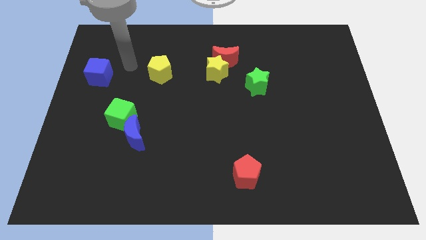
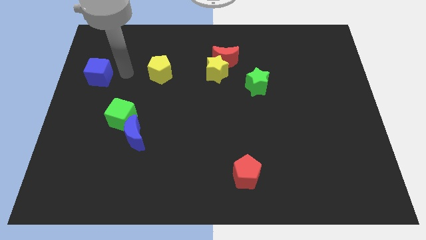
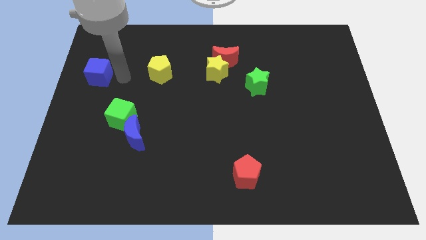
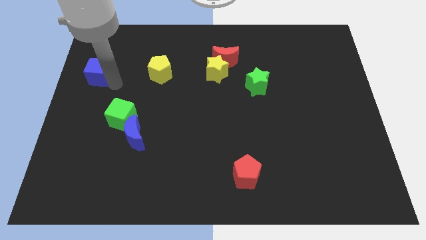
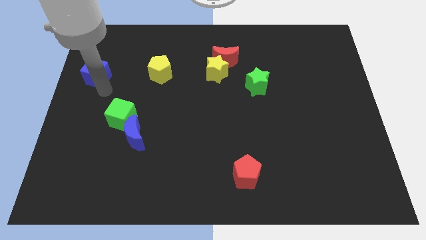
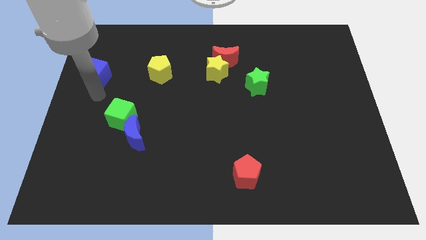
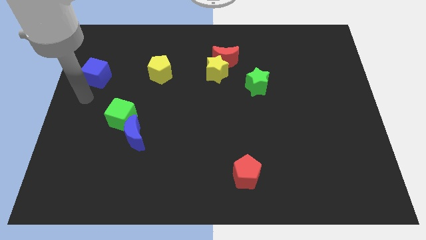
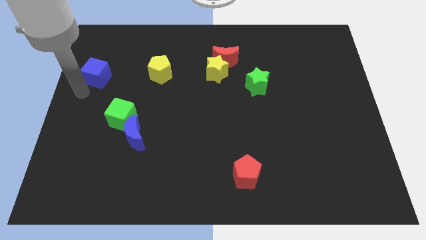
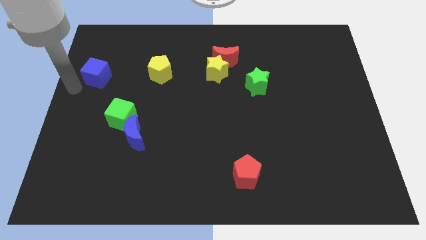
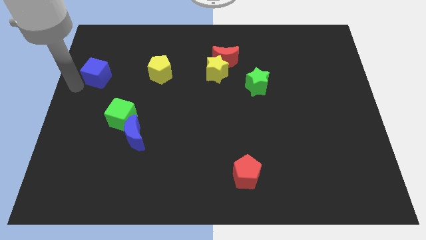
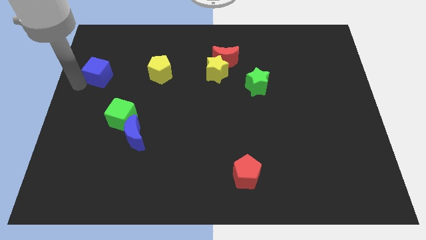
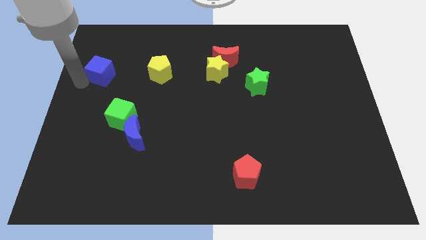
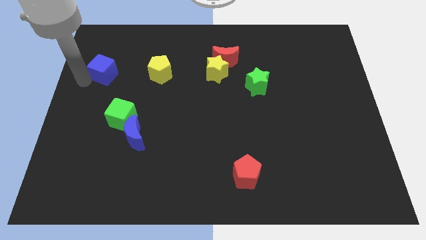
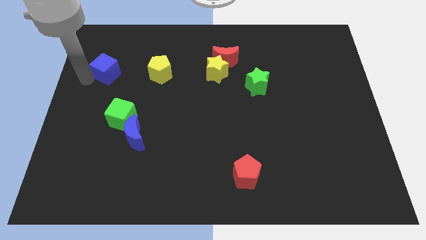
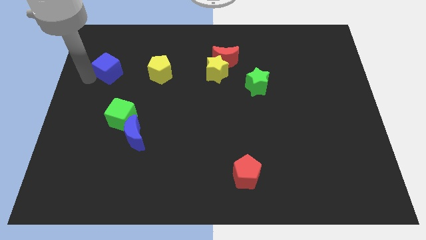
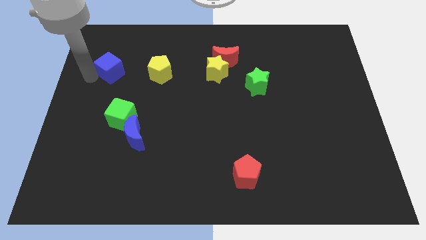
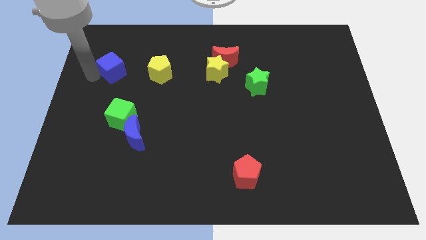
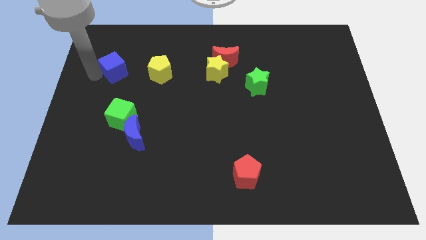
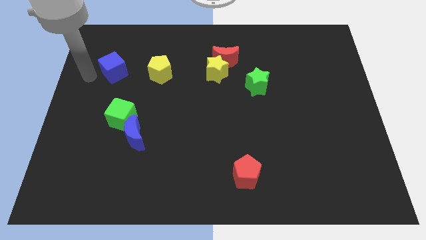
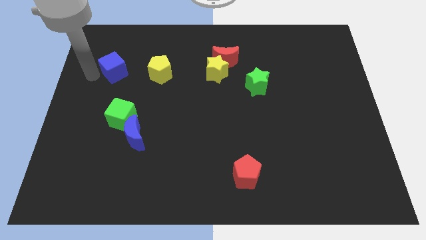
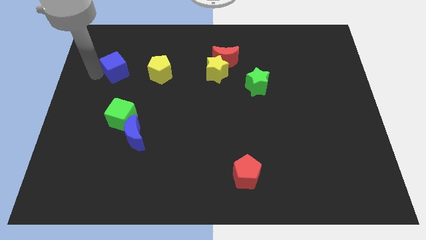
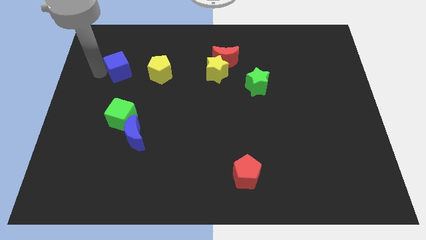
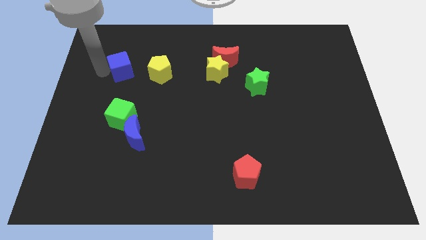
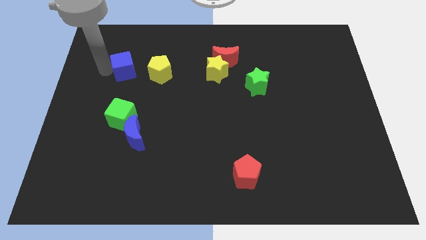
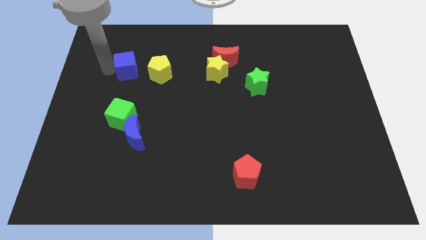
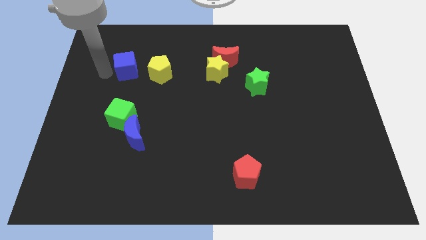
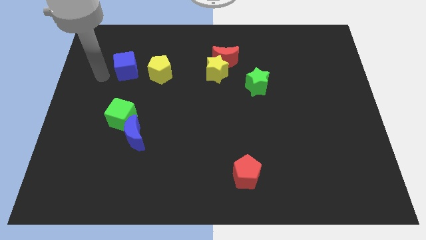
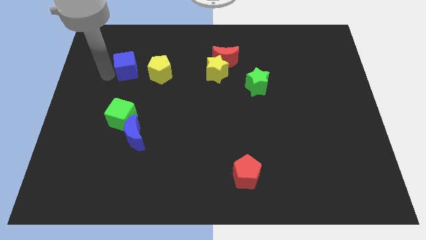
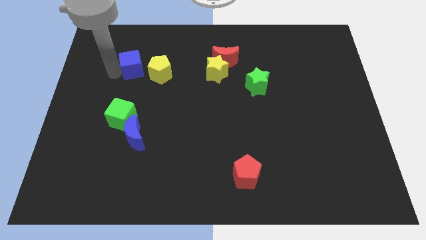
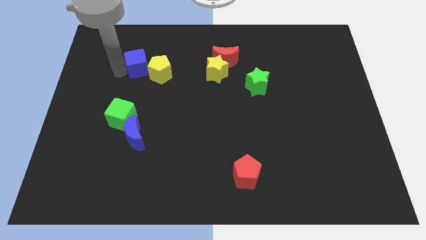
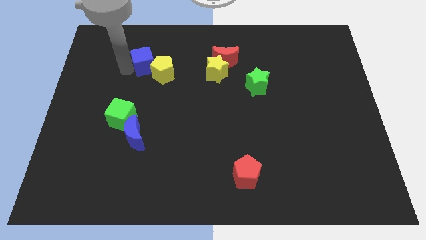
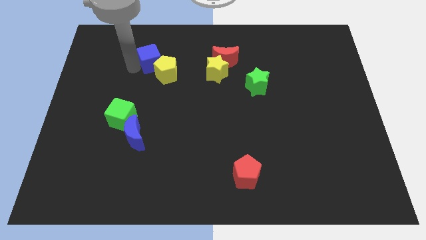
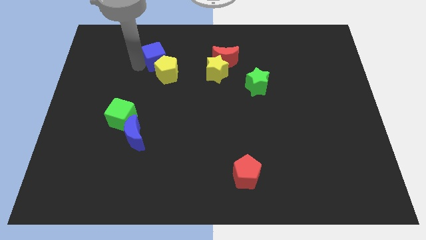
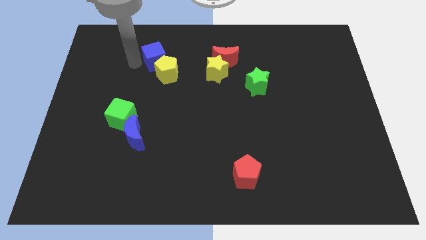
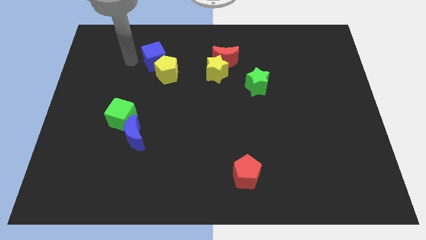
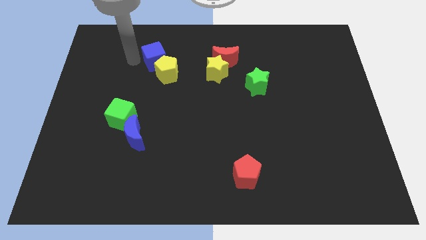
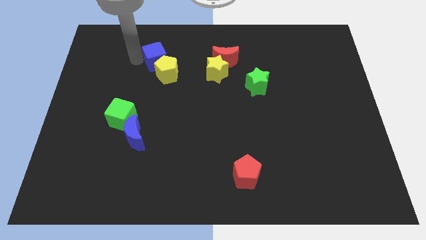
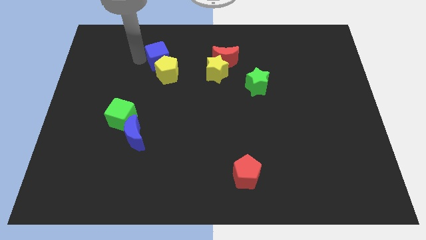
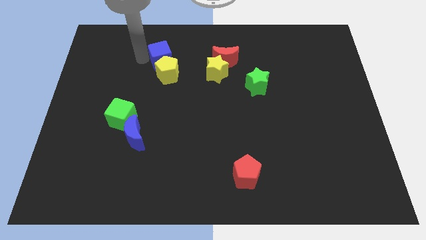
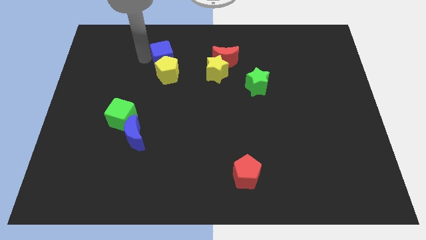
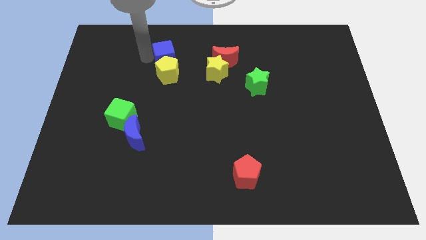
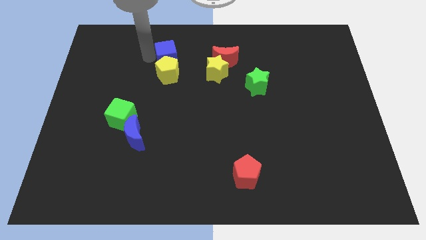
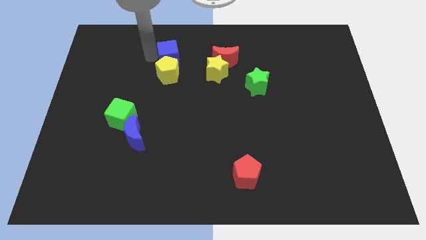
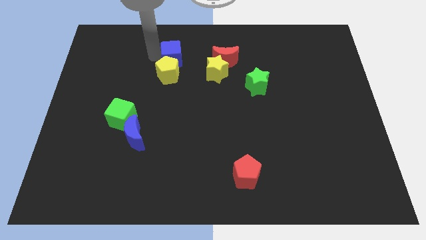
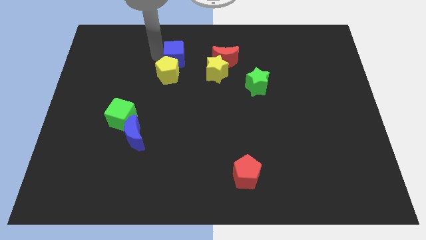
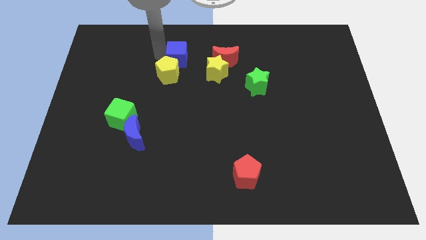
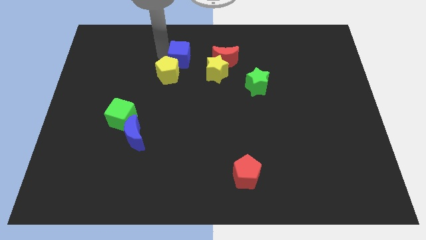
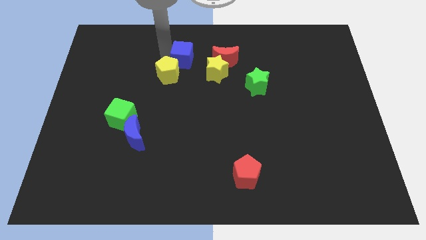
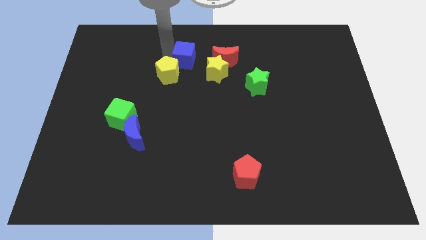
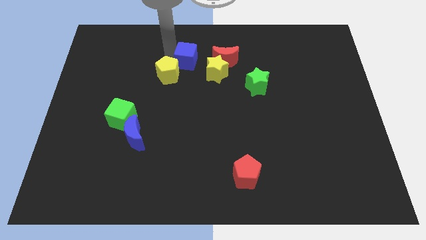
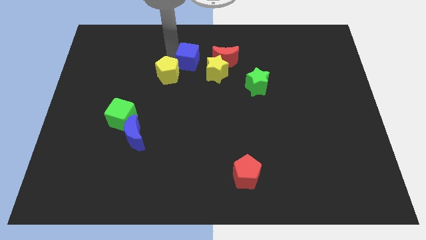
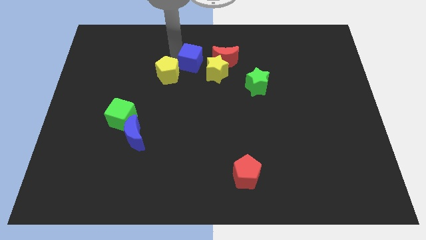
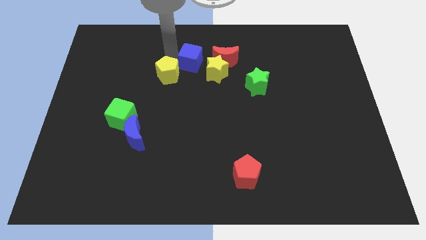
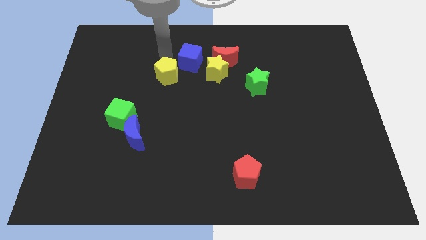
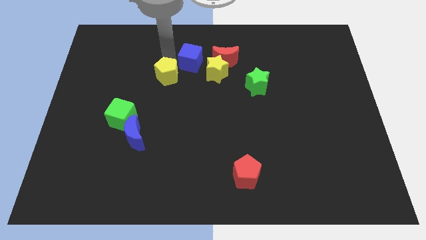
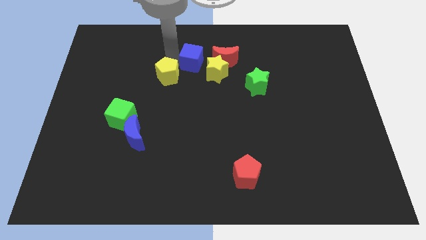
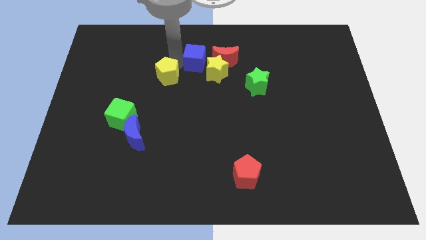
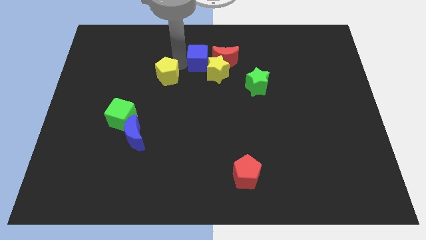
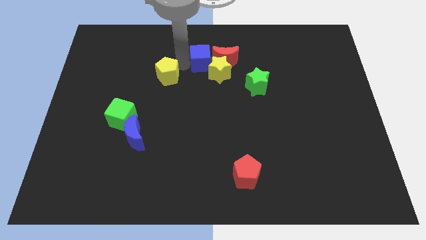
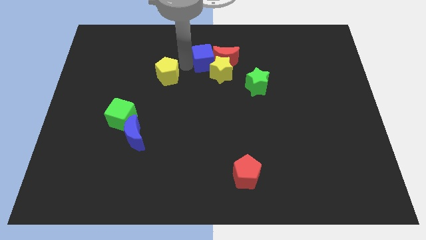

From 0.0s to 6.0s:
push the blue cube next to the red moon

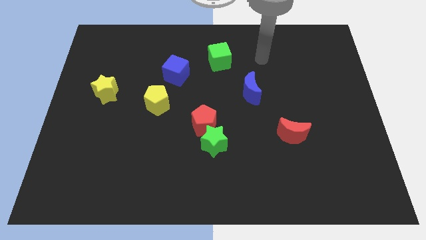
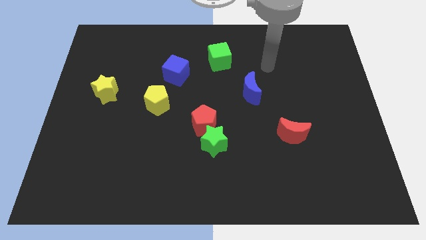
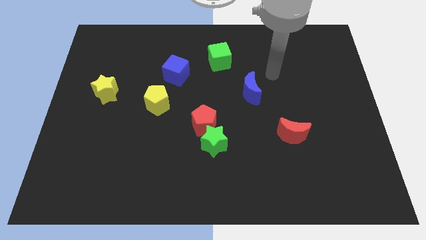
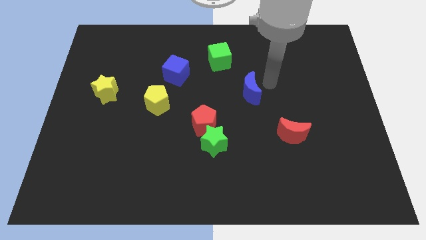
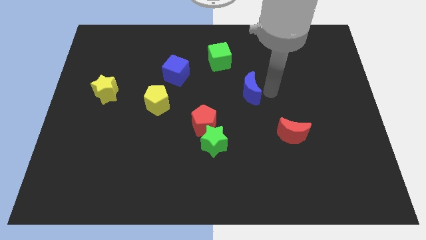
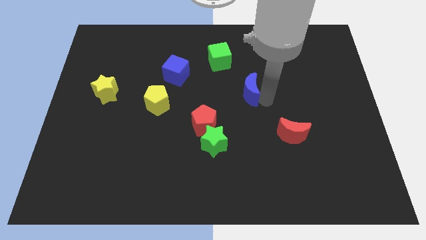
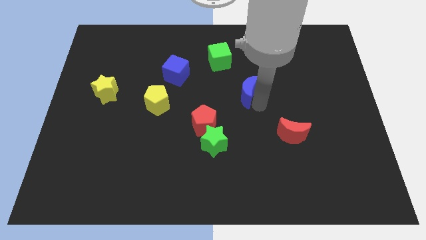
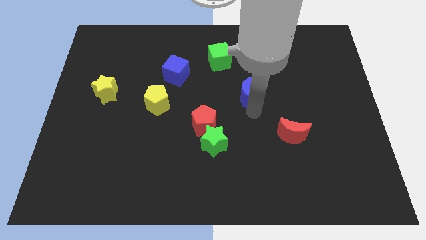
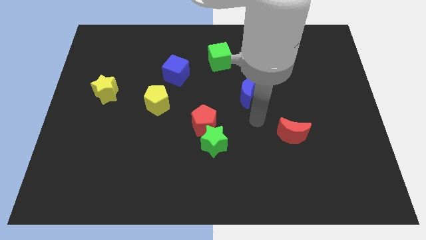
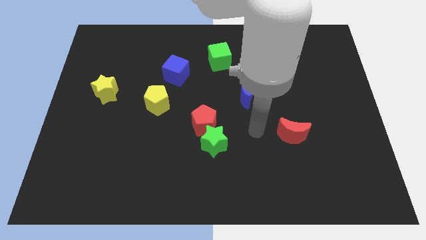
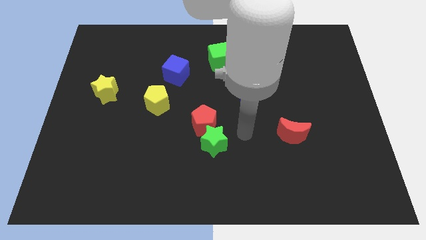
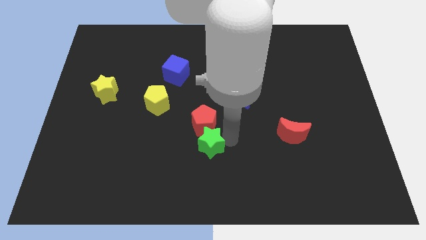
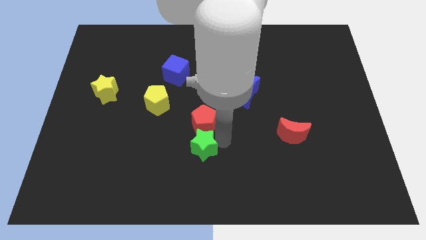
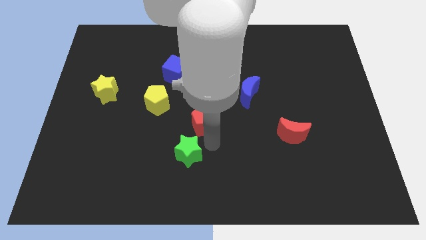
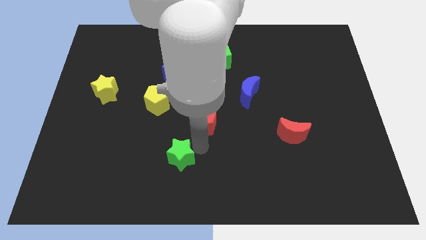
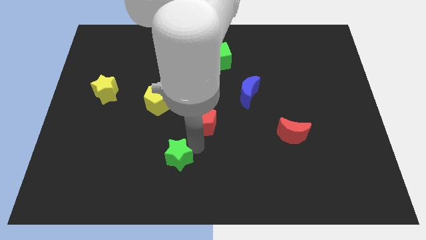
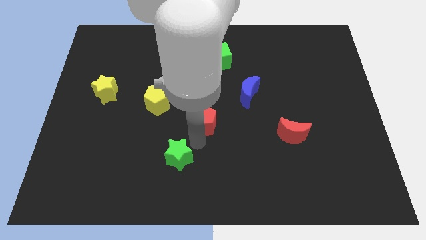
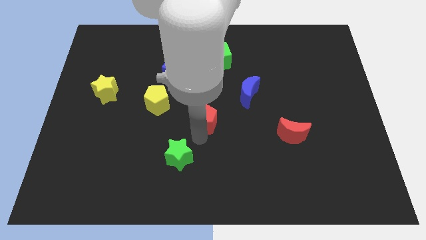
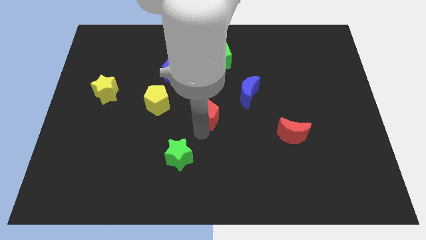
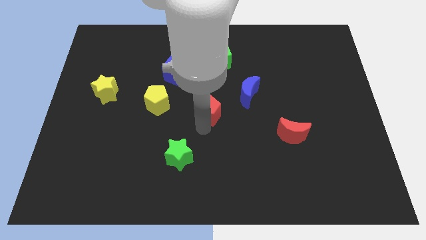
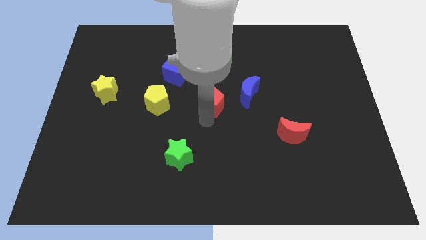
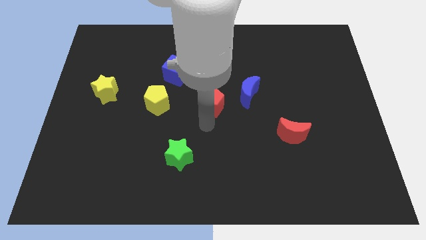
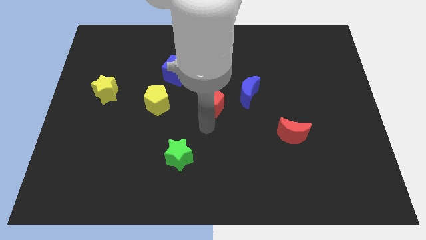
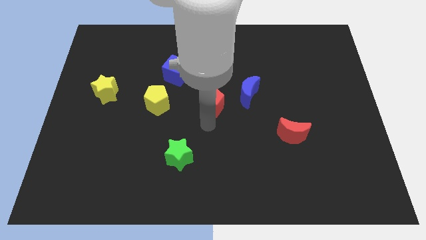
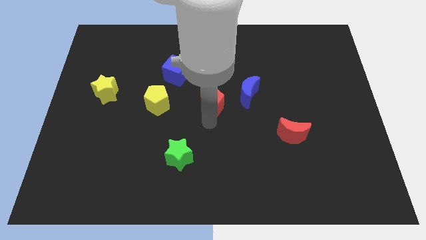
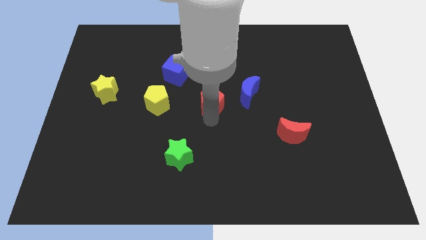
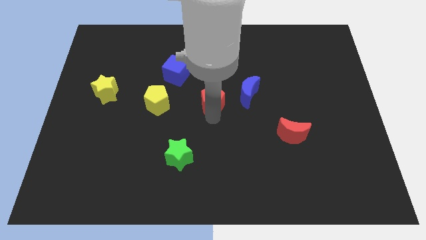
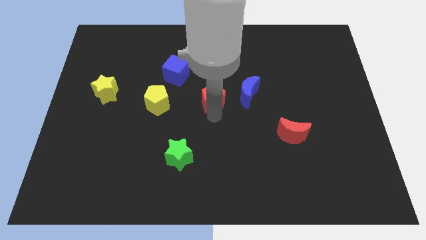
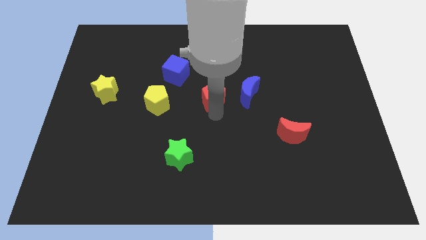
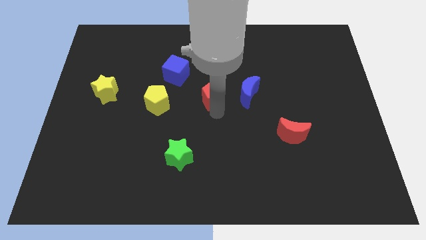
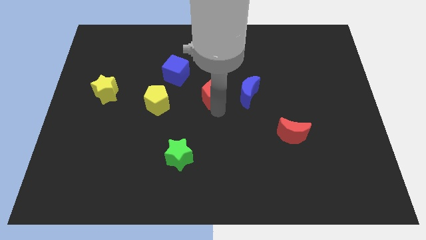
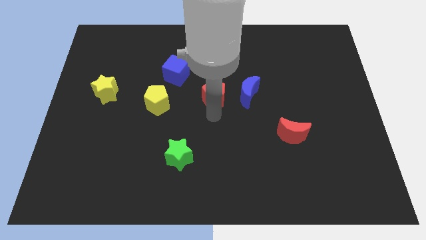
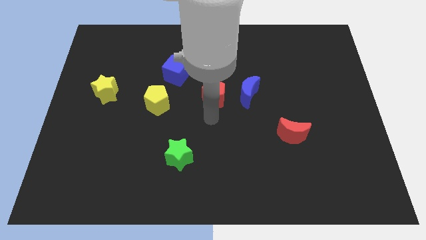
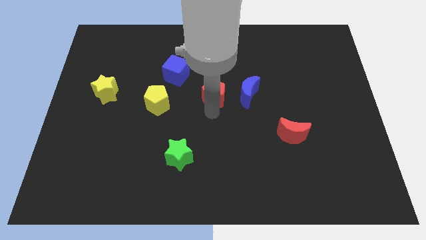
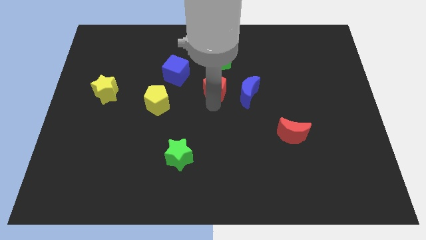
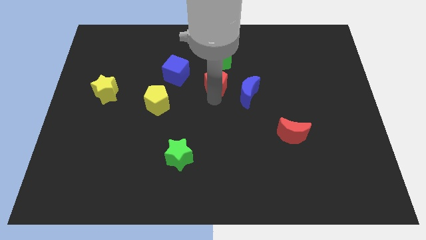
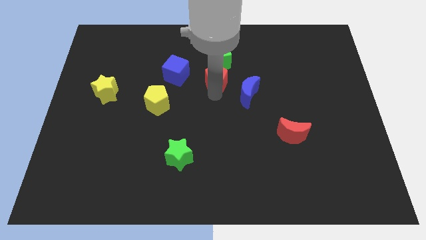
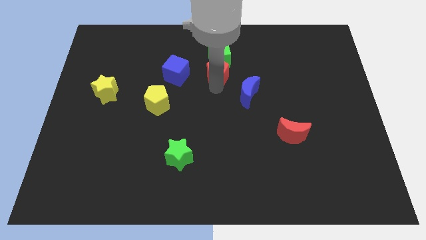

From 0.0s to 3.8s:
move the red pentagon towards the green cube
